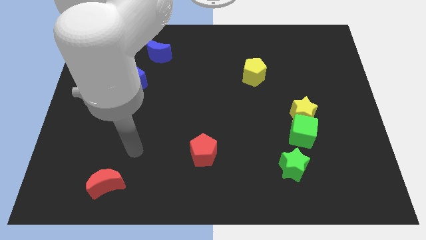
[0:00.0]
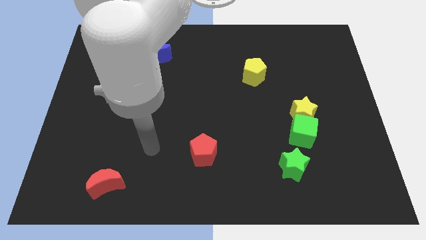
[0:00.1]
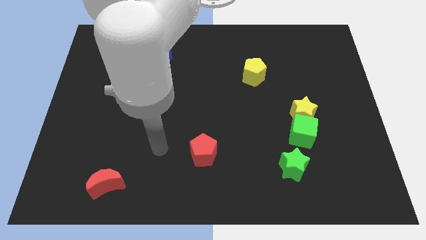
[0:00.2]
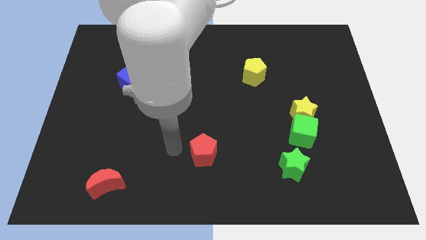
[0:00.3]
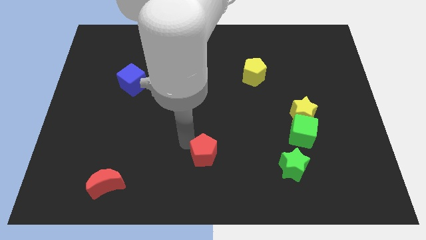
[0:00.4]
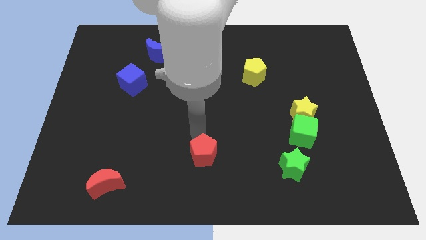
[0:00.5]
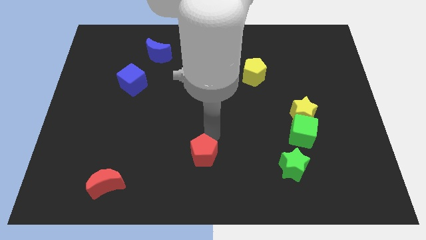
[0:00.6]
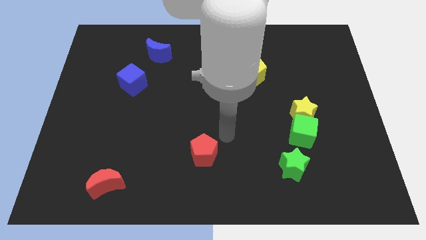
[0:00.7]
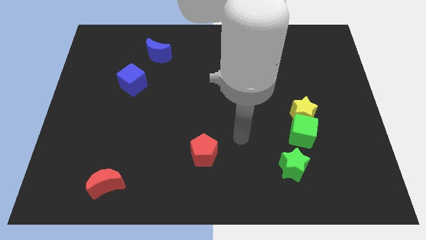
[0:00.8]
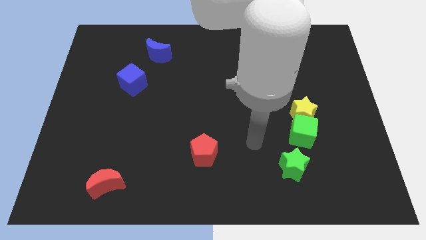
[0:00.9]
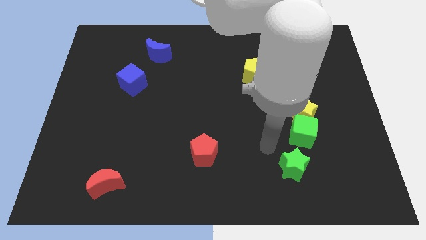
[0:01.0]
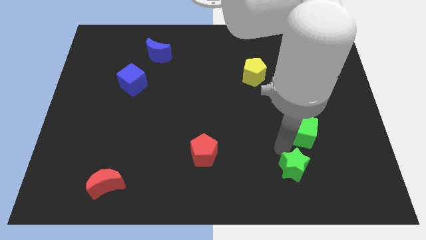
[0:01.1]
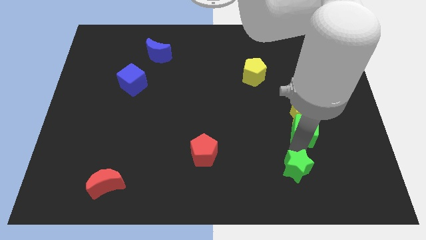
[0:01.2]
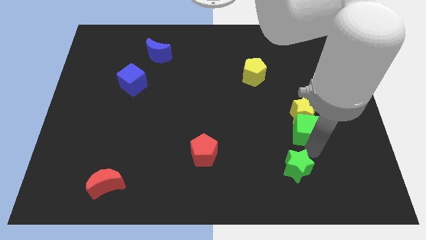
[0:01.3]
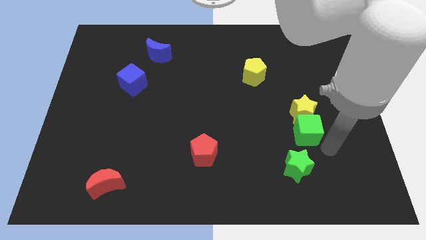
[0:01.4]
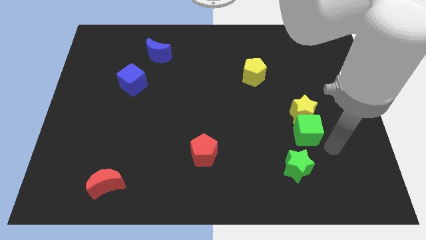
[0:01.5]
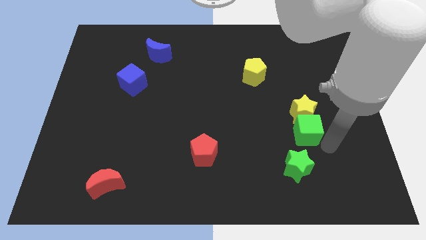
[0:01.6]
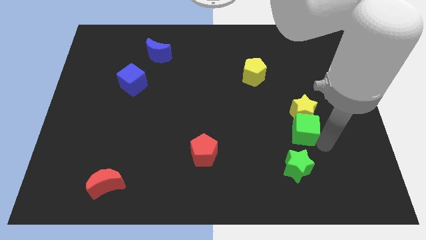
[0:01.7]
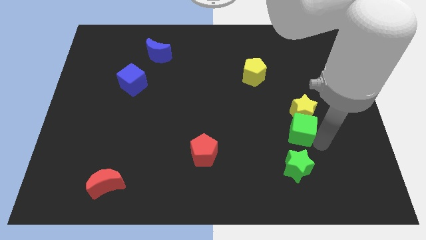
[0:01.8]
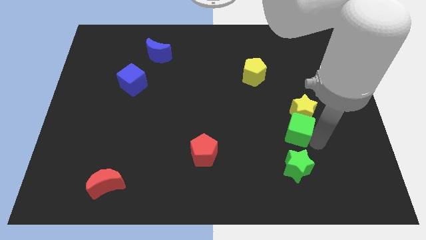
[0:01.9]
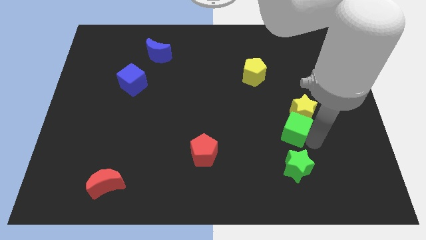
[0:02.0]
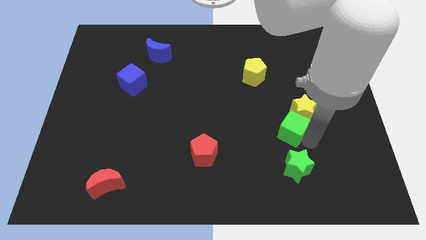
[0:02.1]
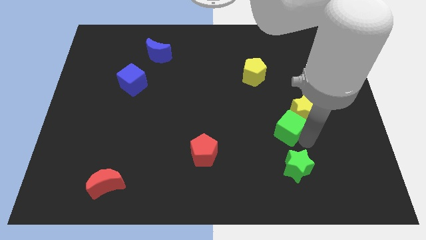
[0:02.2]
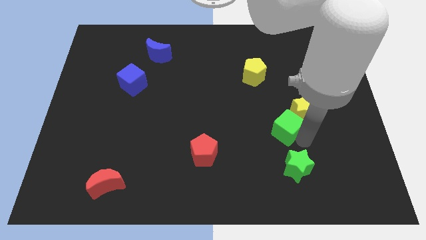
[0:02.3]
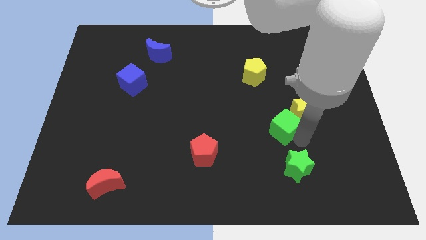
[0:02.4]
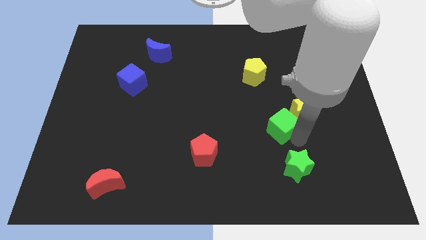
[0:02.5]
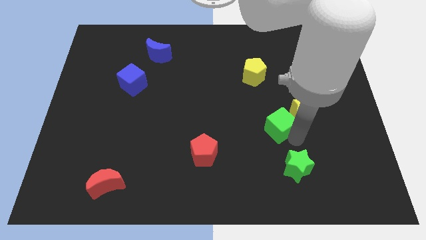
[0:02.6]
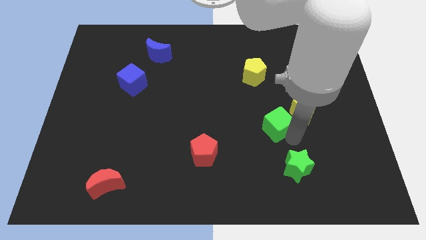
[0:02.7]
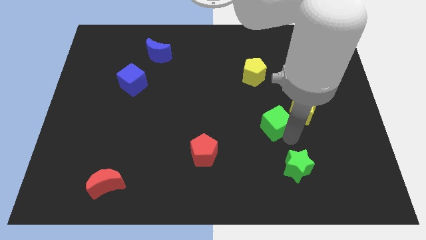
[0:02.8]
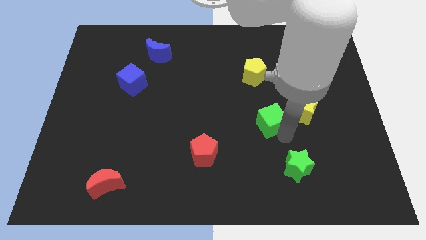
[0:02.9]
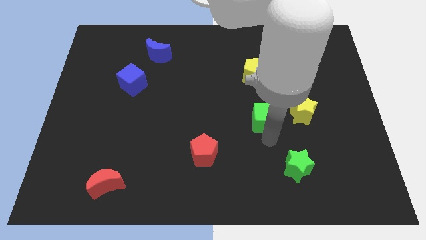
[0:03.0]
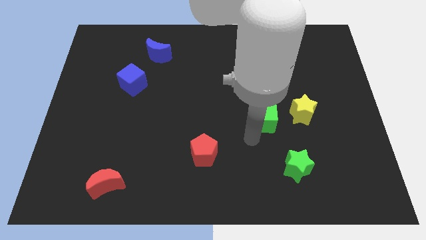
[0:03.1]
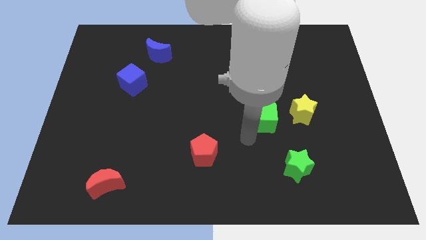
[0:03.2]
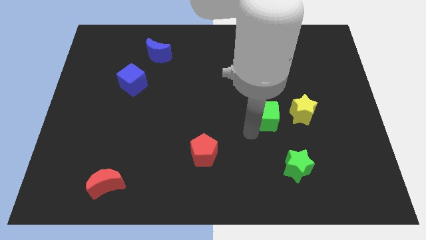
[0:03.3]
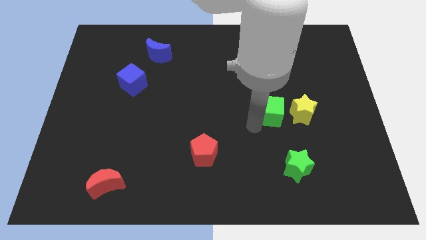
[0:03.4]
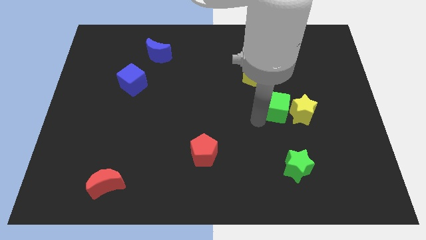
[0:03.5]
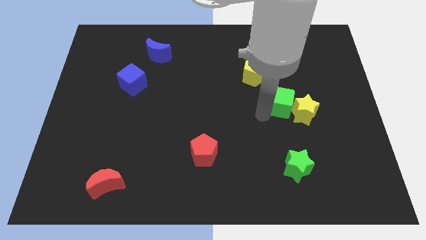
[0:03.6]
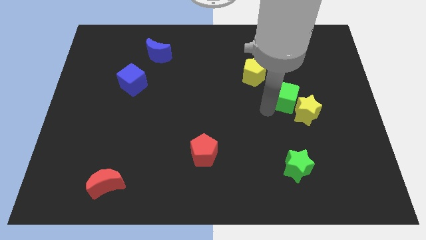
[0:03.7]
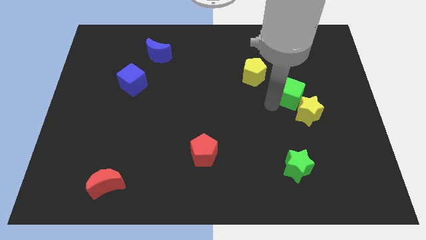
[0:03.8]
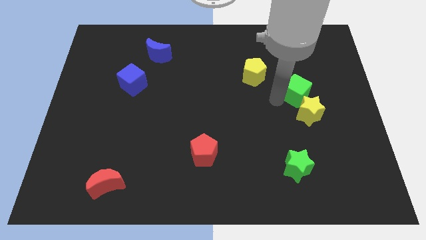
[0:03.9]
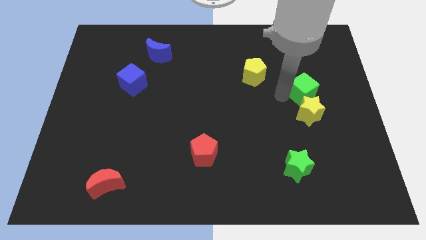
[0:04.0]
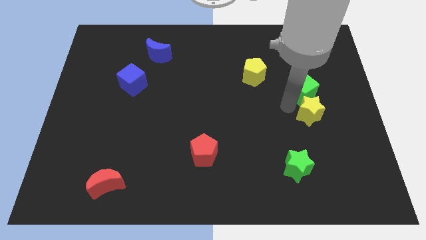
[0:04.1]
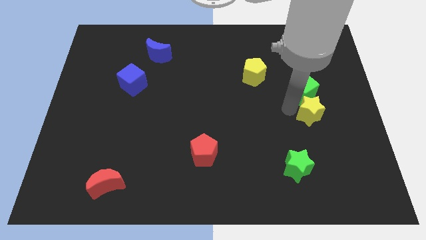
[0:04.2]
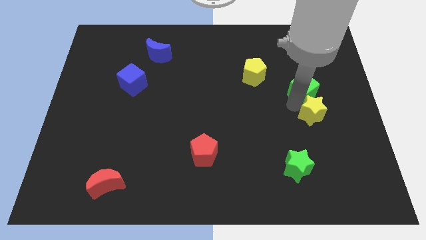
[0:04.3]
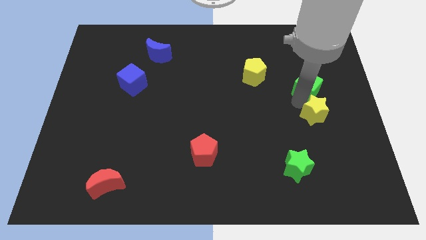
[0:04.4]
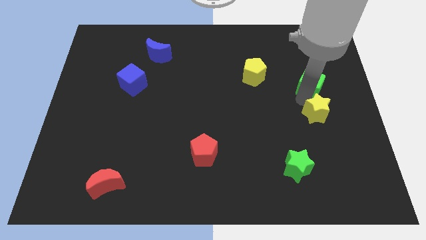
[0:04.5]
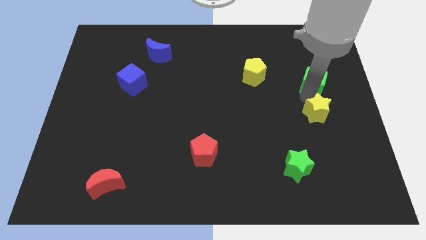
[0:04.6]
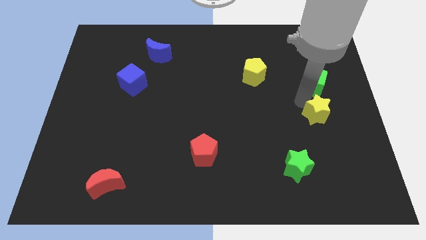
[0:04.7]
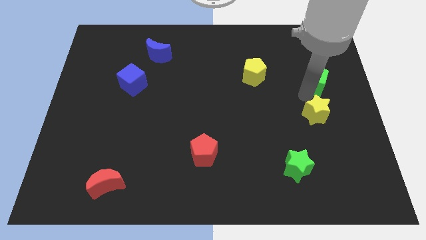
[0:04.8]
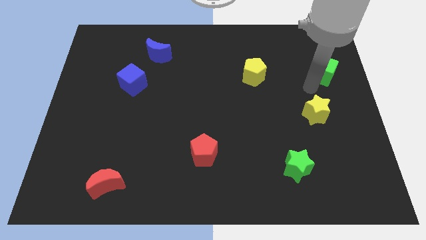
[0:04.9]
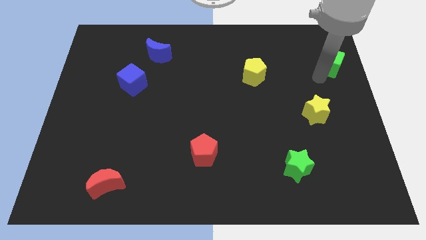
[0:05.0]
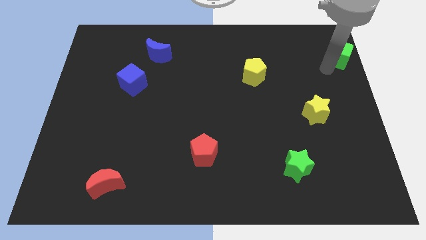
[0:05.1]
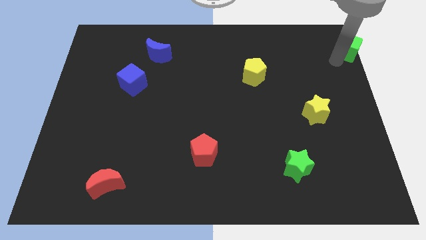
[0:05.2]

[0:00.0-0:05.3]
push the green cube to the top right

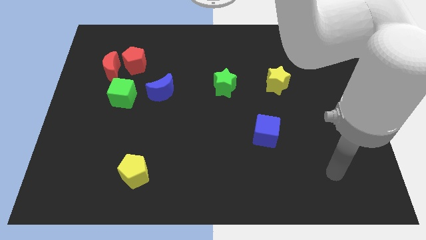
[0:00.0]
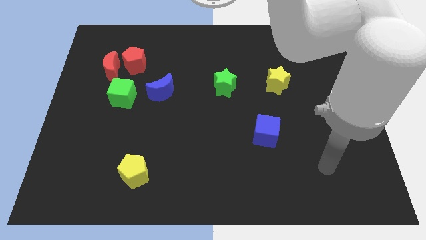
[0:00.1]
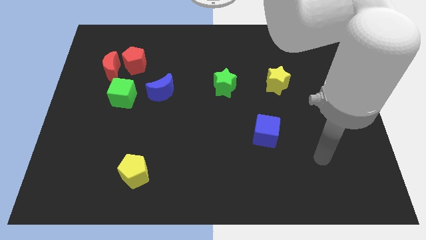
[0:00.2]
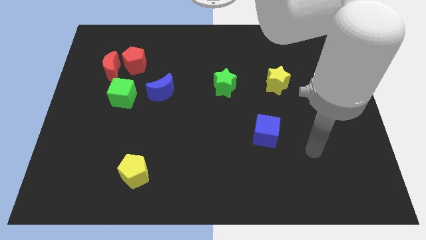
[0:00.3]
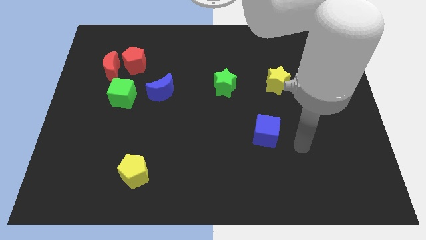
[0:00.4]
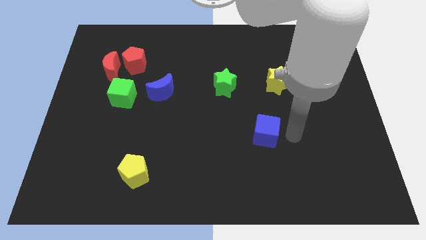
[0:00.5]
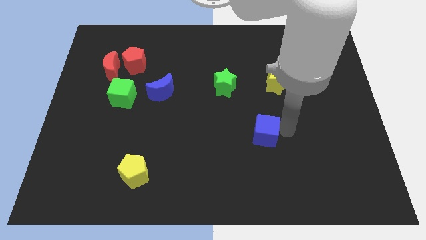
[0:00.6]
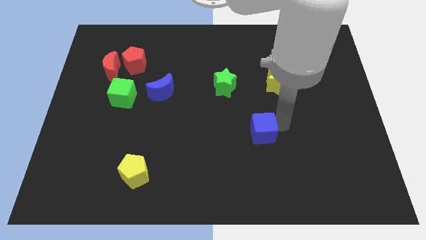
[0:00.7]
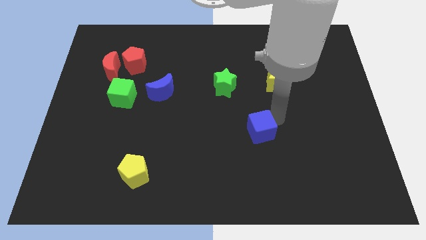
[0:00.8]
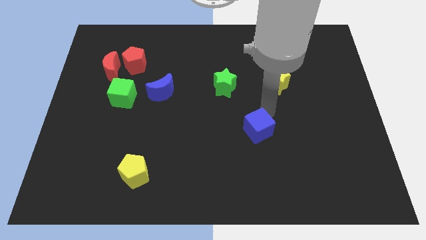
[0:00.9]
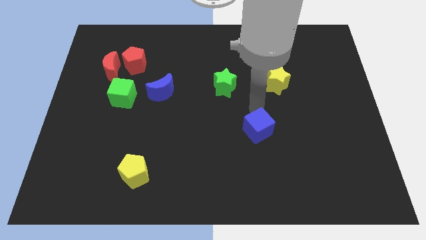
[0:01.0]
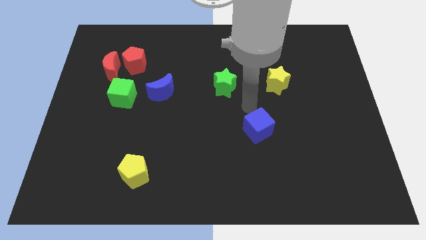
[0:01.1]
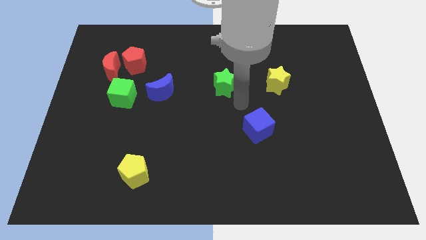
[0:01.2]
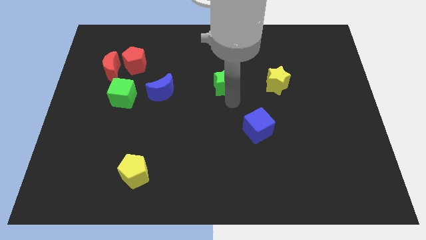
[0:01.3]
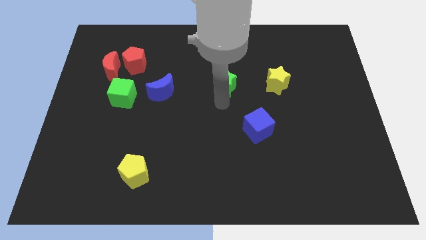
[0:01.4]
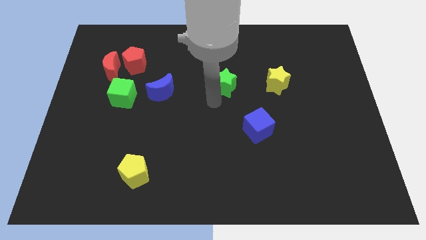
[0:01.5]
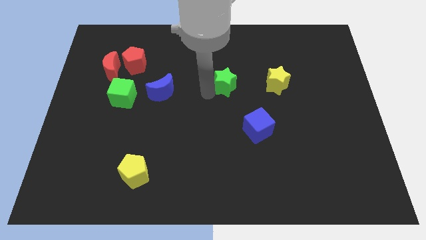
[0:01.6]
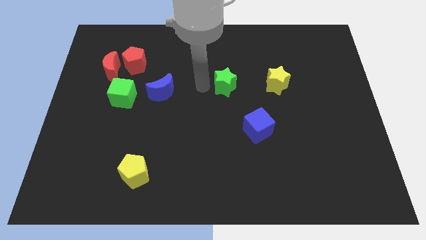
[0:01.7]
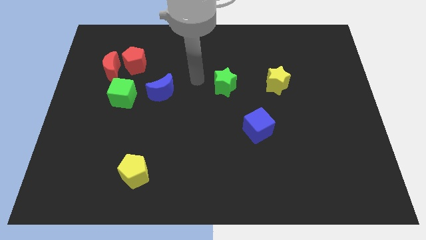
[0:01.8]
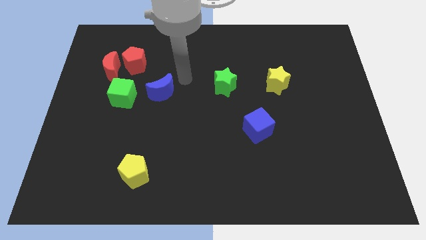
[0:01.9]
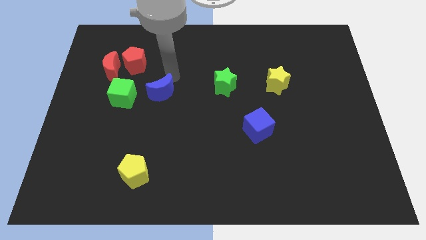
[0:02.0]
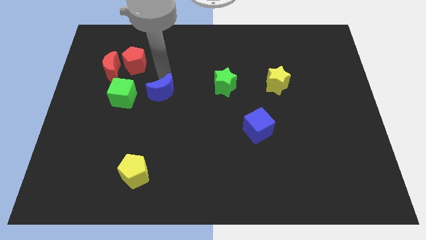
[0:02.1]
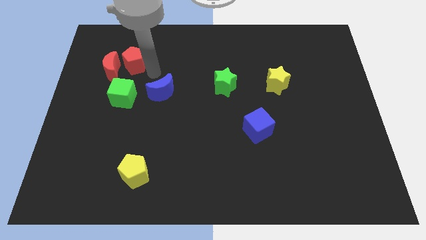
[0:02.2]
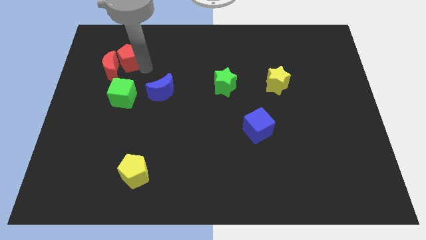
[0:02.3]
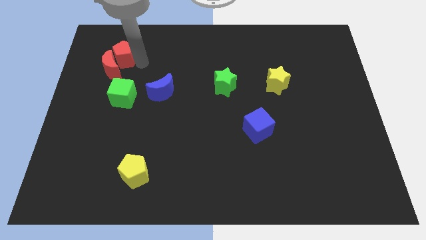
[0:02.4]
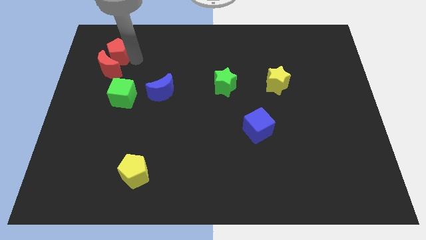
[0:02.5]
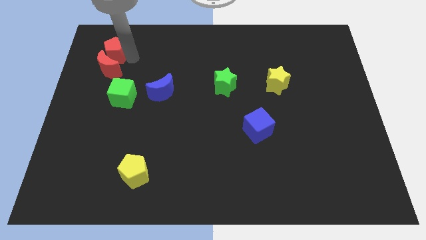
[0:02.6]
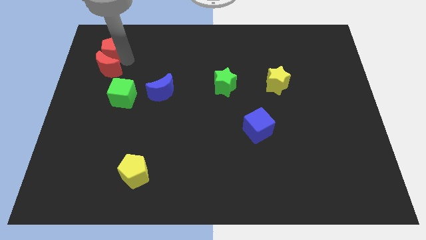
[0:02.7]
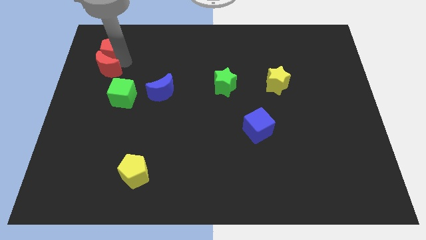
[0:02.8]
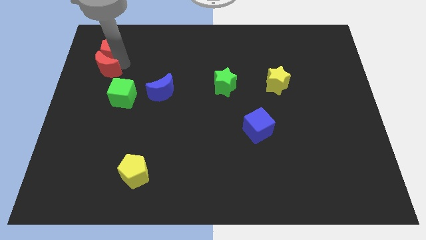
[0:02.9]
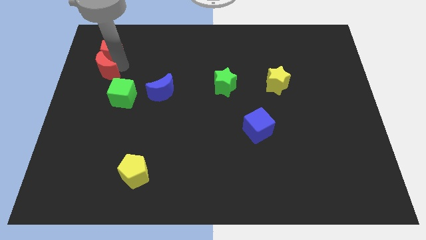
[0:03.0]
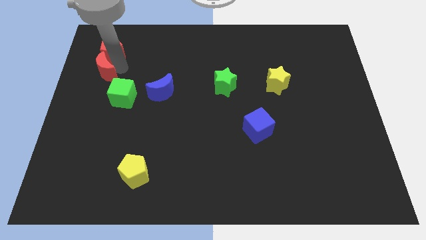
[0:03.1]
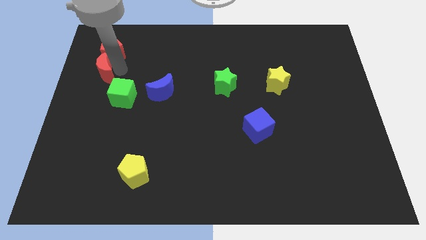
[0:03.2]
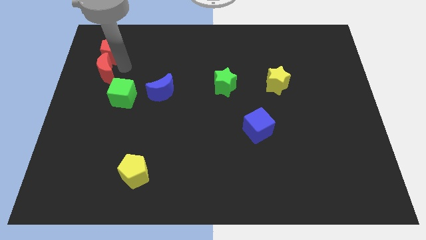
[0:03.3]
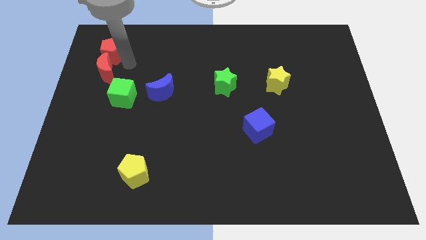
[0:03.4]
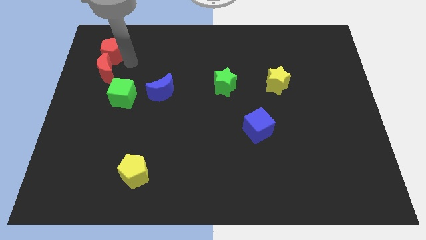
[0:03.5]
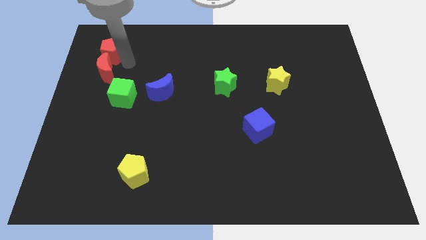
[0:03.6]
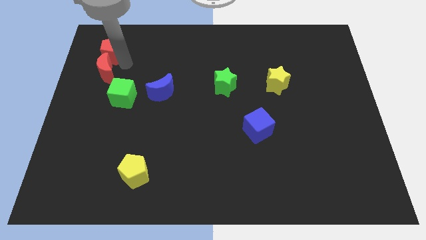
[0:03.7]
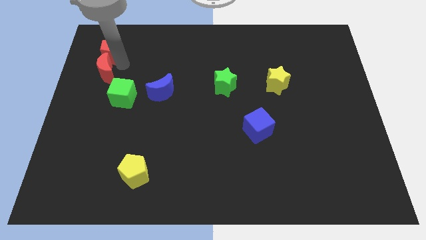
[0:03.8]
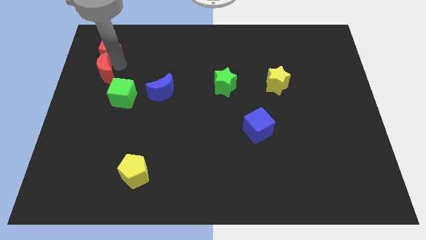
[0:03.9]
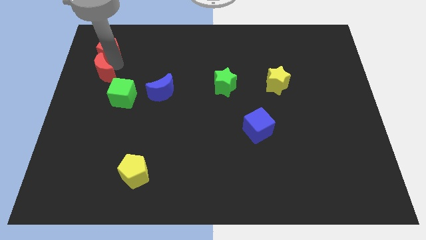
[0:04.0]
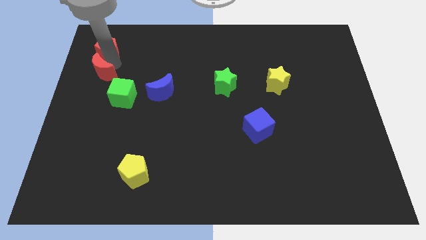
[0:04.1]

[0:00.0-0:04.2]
push the red moon to the left side
